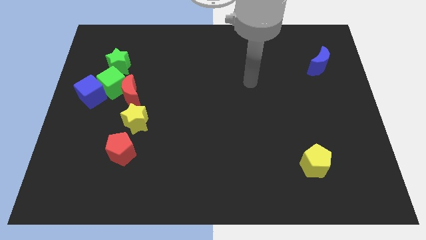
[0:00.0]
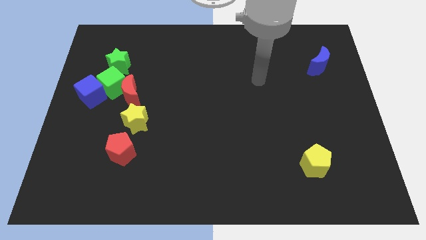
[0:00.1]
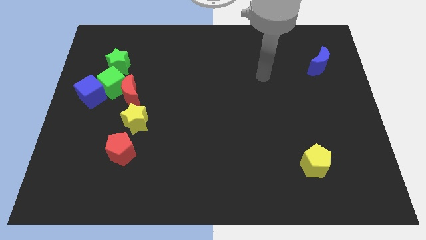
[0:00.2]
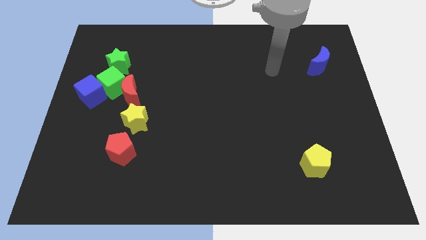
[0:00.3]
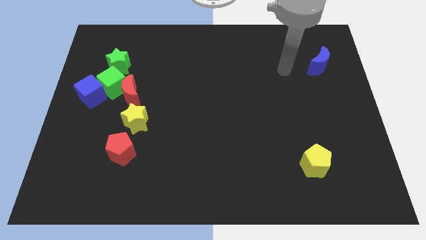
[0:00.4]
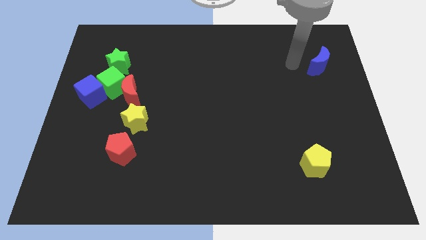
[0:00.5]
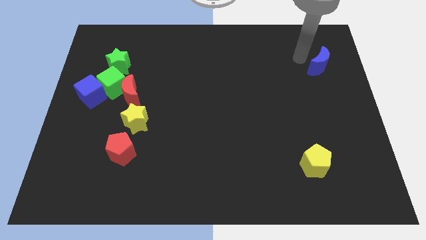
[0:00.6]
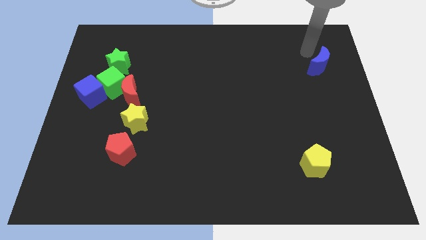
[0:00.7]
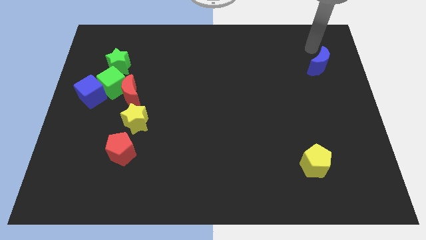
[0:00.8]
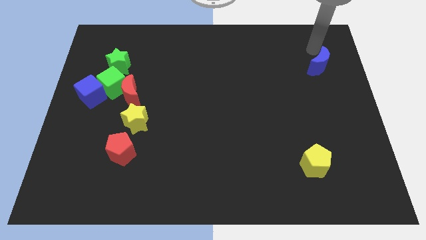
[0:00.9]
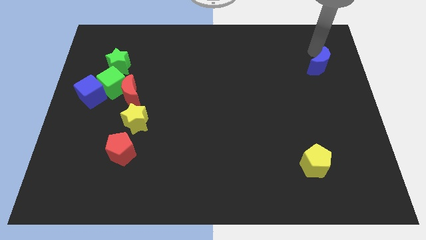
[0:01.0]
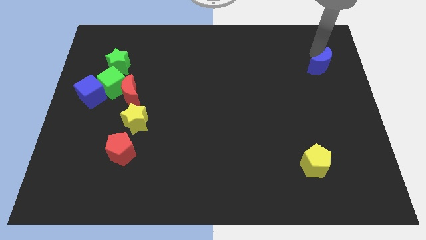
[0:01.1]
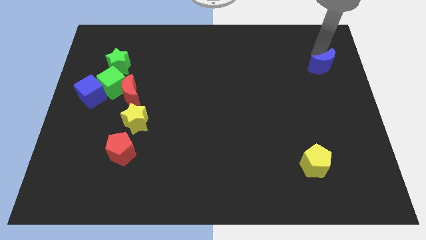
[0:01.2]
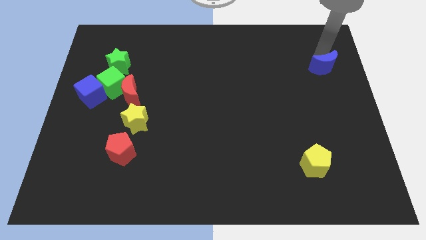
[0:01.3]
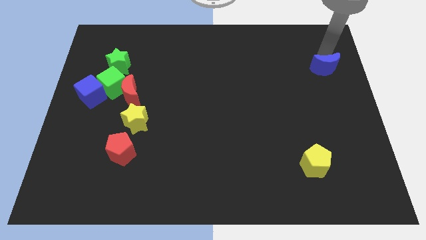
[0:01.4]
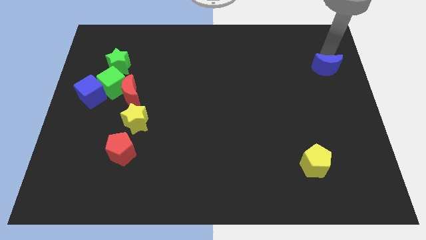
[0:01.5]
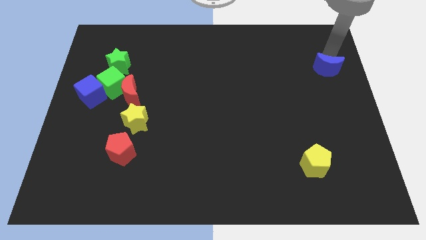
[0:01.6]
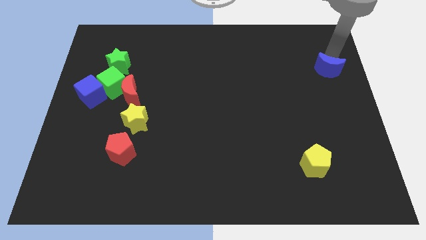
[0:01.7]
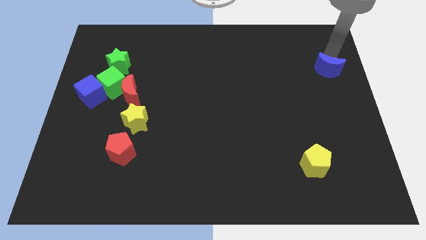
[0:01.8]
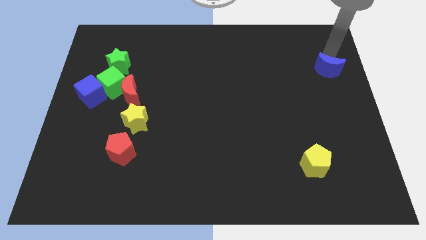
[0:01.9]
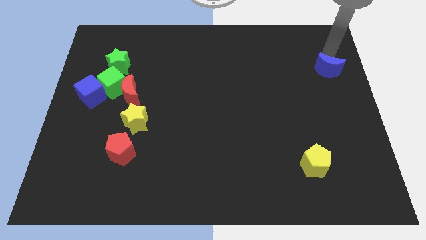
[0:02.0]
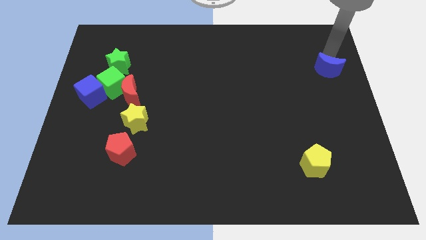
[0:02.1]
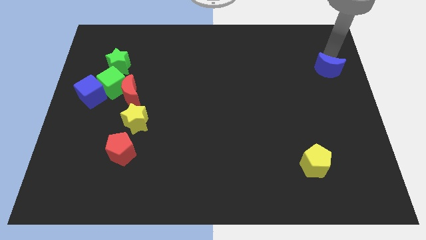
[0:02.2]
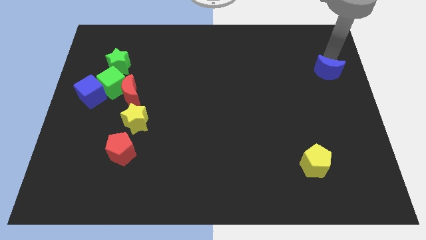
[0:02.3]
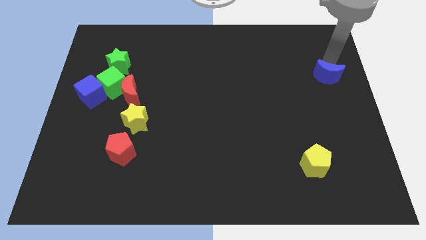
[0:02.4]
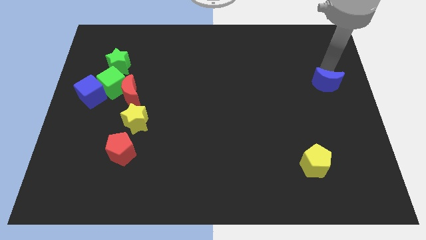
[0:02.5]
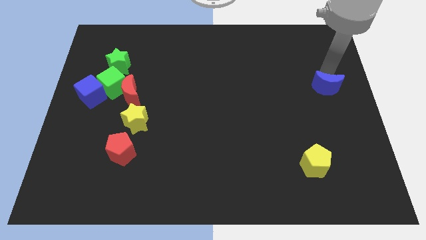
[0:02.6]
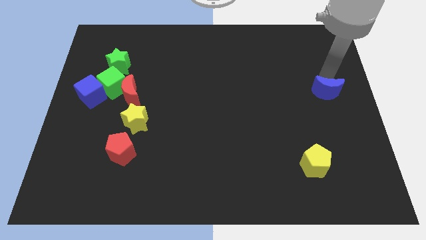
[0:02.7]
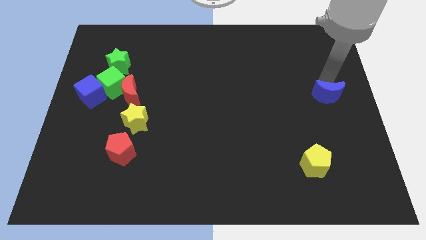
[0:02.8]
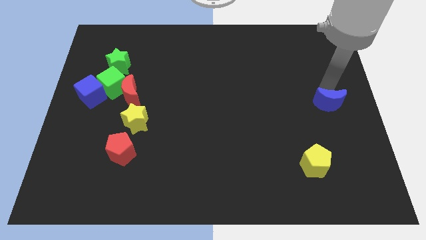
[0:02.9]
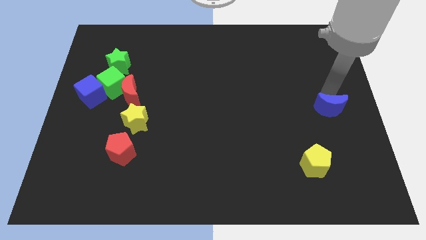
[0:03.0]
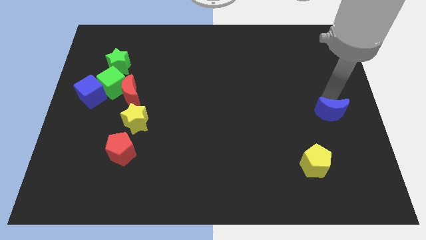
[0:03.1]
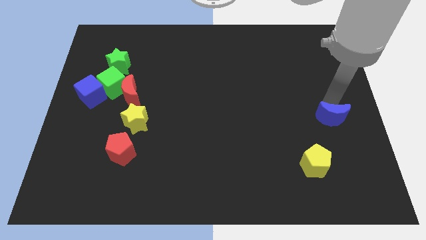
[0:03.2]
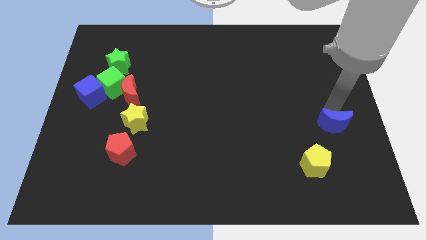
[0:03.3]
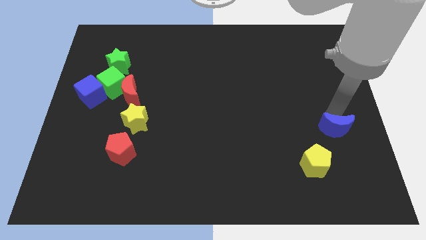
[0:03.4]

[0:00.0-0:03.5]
slide the blue moon down

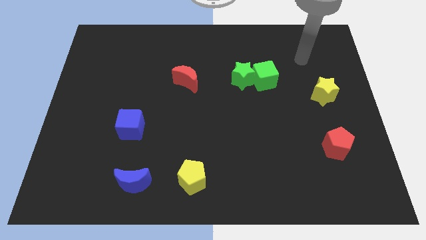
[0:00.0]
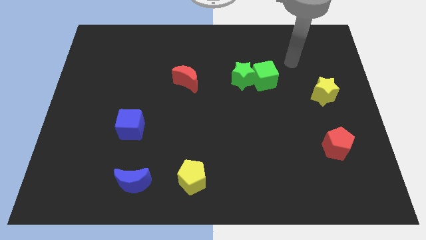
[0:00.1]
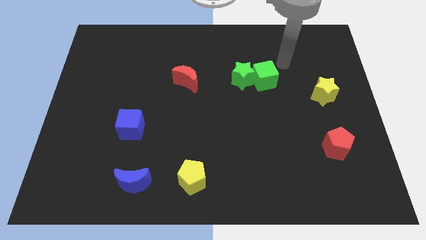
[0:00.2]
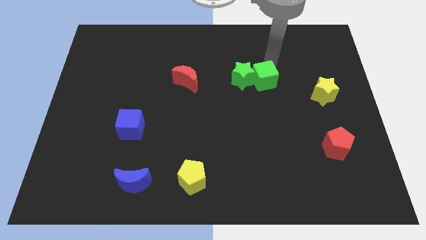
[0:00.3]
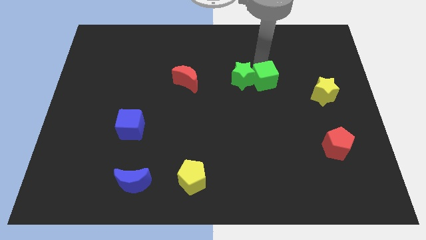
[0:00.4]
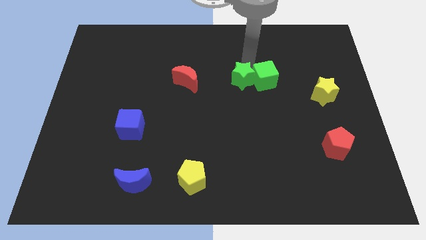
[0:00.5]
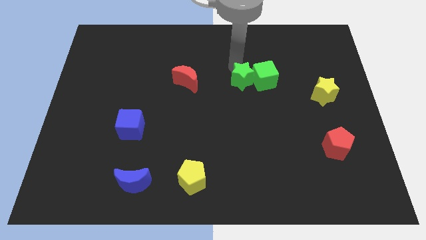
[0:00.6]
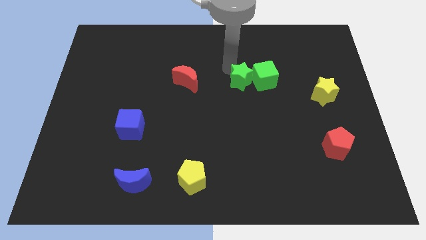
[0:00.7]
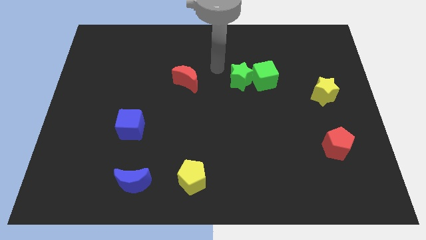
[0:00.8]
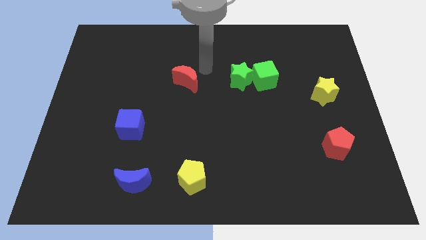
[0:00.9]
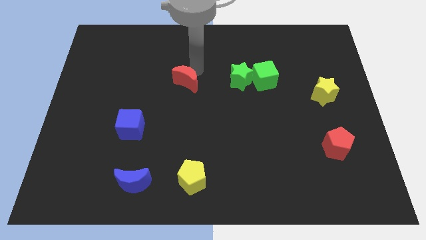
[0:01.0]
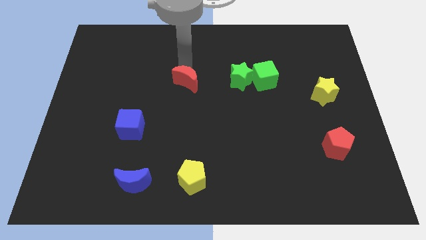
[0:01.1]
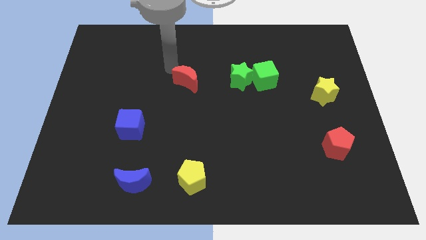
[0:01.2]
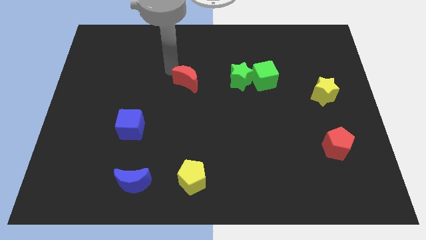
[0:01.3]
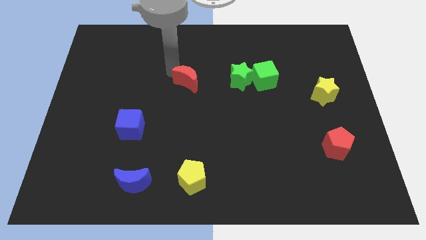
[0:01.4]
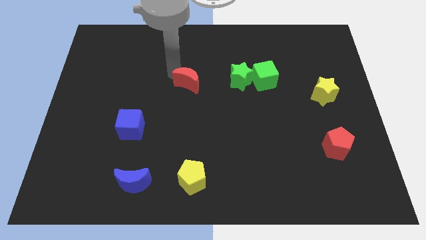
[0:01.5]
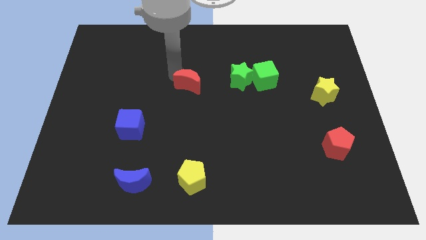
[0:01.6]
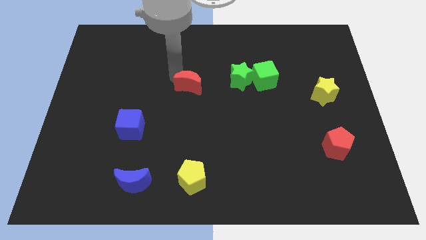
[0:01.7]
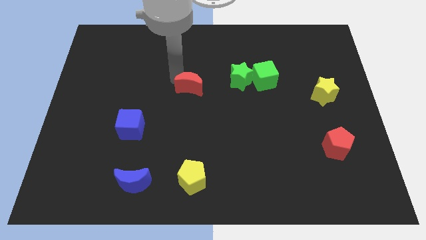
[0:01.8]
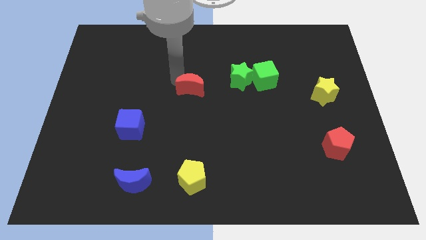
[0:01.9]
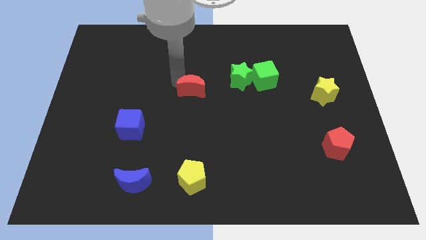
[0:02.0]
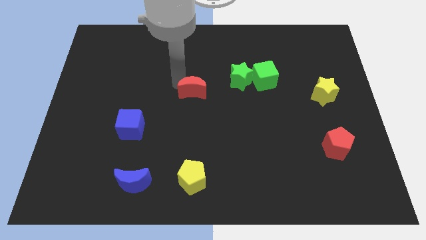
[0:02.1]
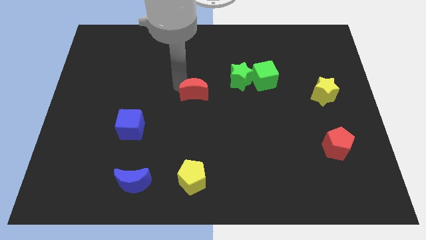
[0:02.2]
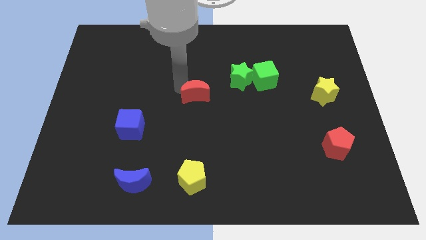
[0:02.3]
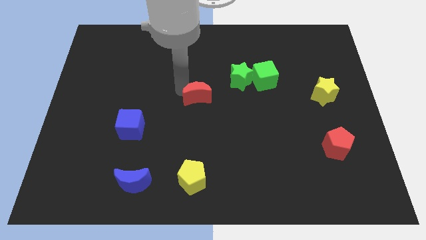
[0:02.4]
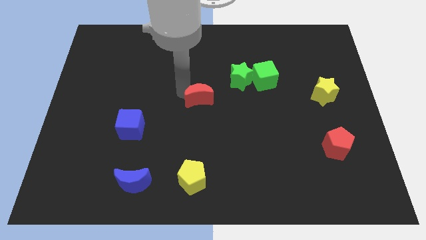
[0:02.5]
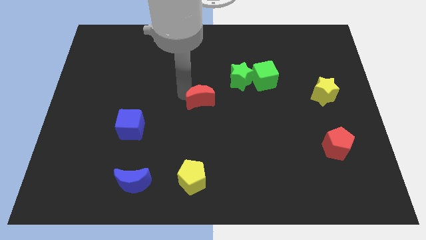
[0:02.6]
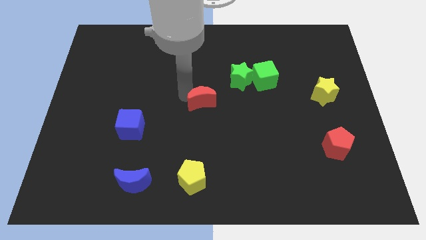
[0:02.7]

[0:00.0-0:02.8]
push the red moon diagonally downwards and right a bit

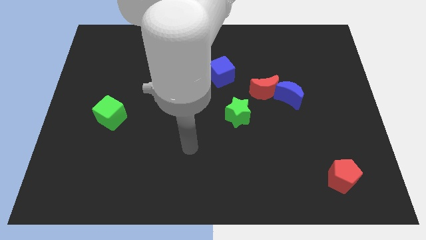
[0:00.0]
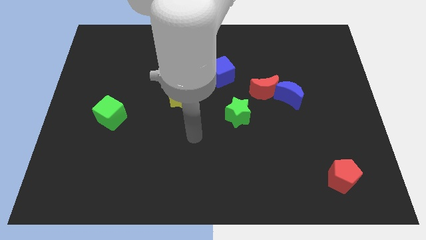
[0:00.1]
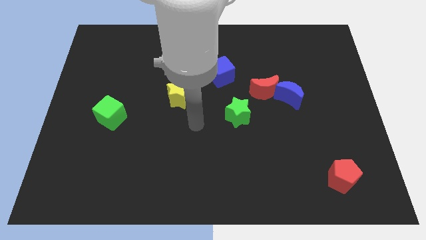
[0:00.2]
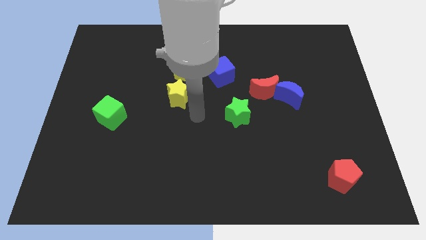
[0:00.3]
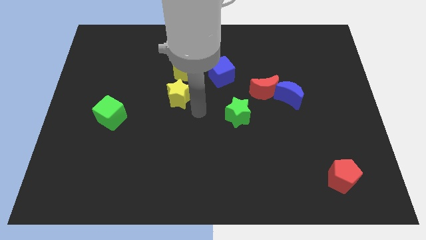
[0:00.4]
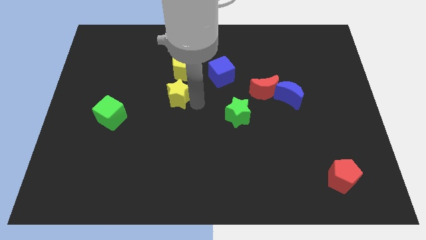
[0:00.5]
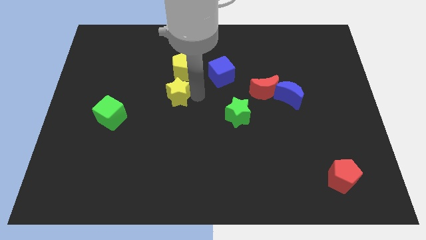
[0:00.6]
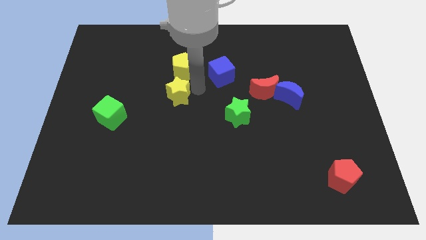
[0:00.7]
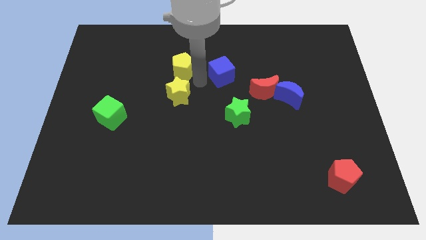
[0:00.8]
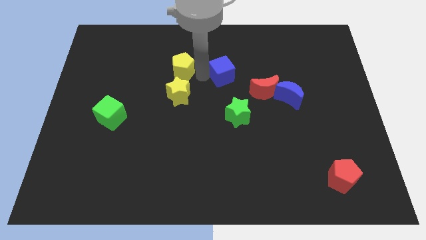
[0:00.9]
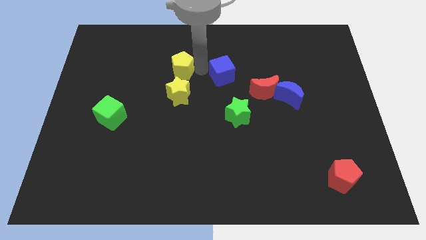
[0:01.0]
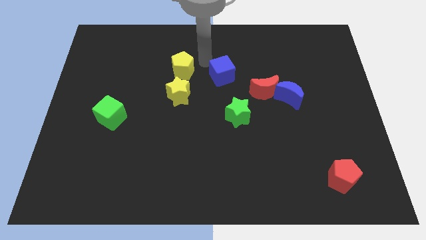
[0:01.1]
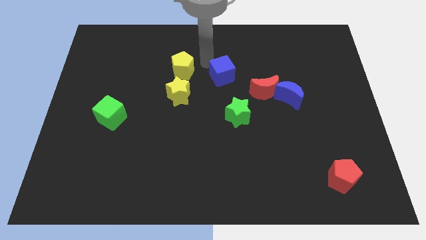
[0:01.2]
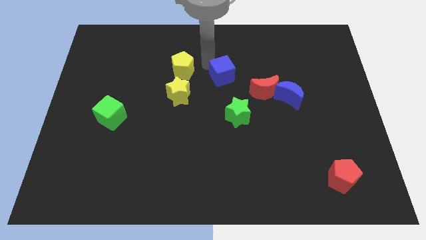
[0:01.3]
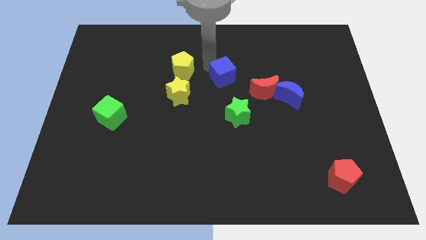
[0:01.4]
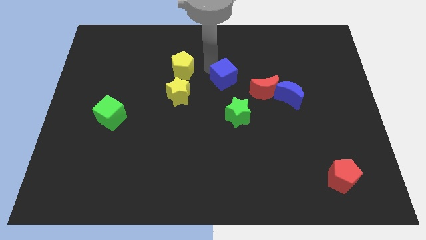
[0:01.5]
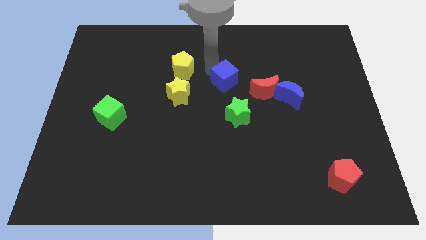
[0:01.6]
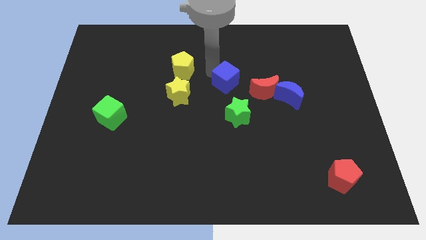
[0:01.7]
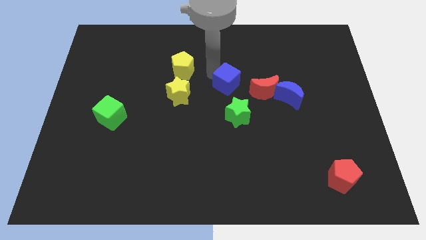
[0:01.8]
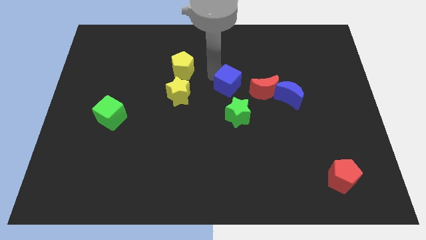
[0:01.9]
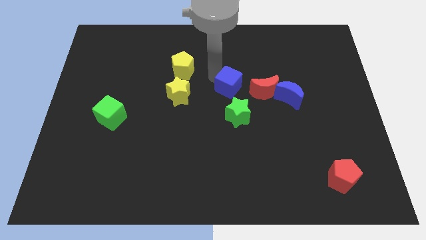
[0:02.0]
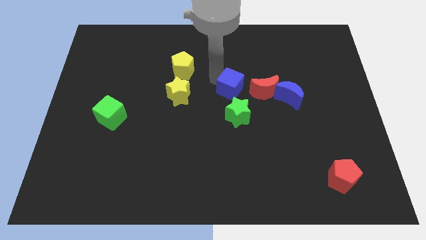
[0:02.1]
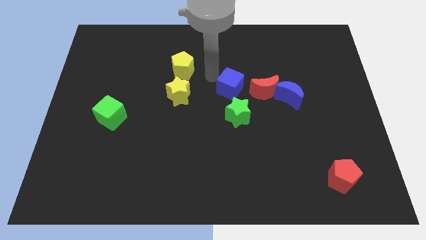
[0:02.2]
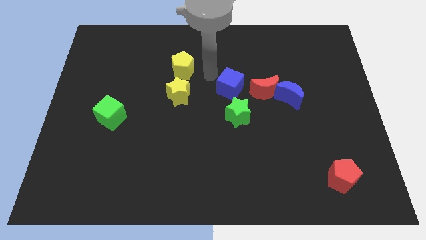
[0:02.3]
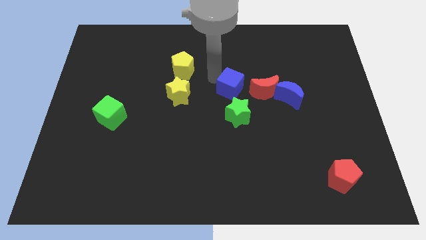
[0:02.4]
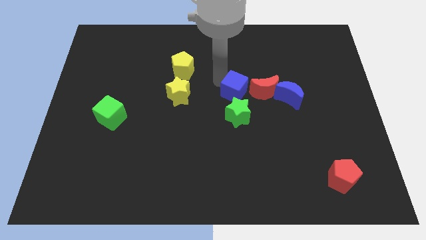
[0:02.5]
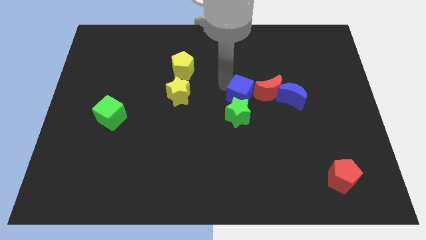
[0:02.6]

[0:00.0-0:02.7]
push the blue cube down and then to the right a little bit
